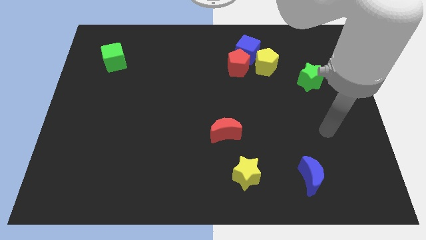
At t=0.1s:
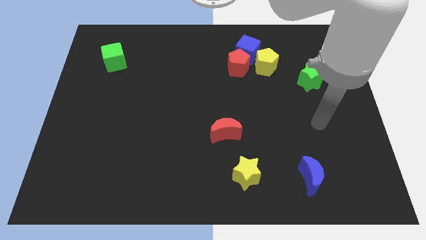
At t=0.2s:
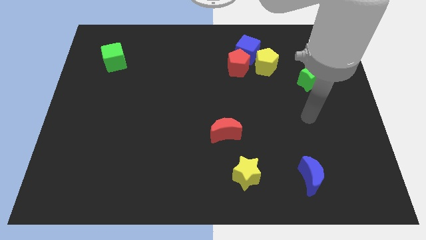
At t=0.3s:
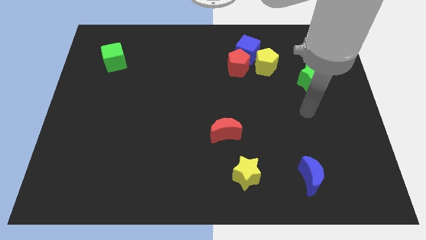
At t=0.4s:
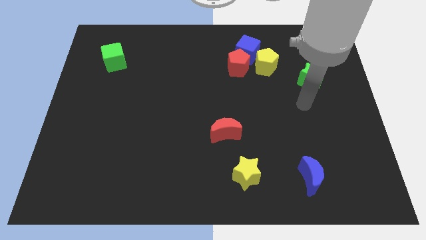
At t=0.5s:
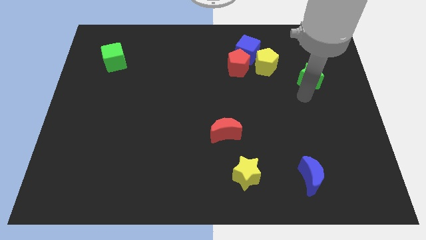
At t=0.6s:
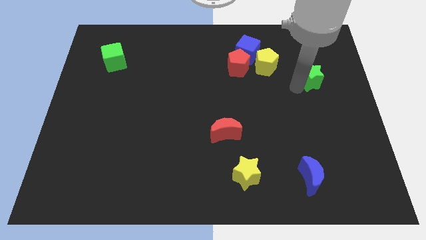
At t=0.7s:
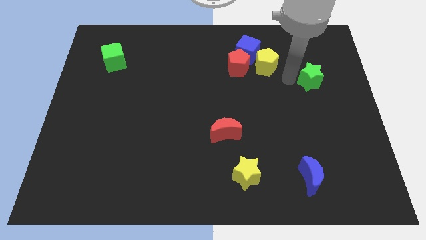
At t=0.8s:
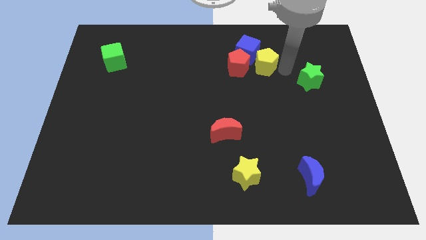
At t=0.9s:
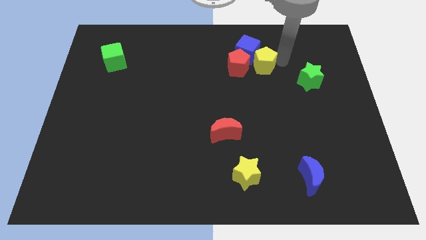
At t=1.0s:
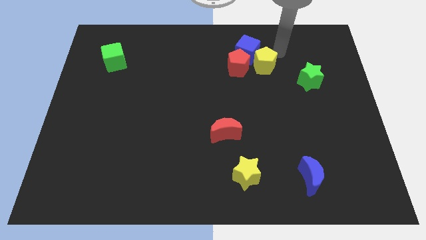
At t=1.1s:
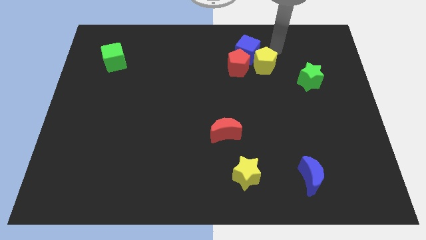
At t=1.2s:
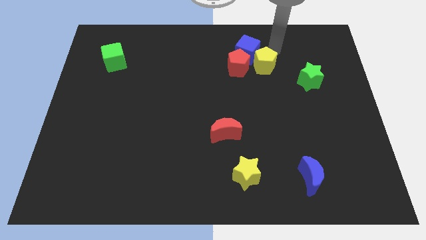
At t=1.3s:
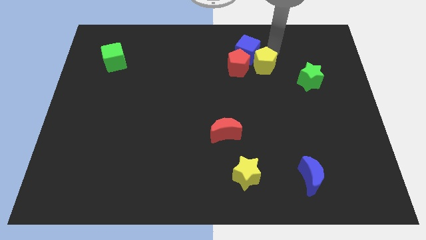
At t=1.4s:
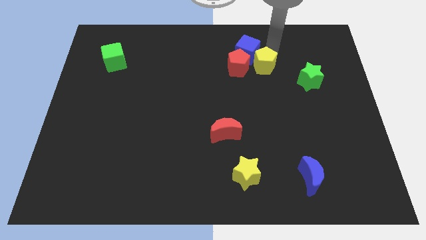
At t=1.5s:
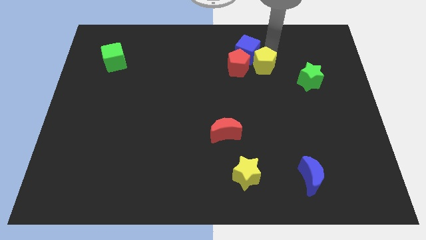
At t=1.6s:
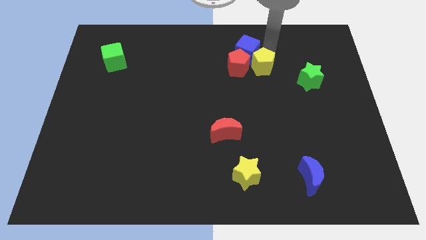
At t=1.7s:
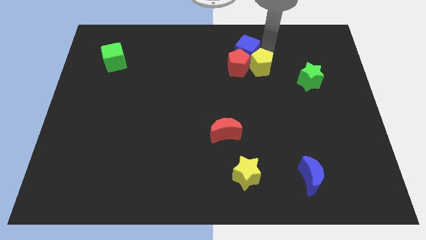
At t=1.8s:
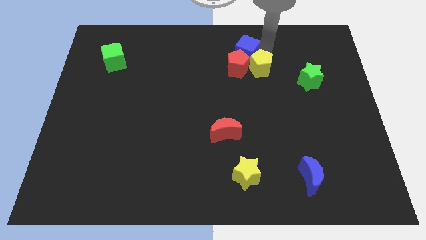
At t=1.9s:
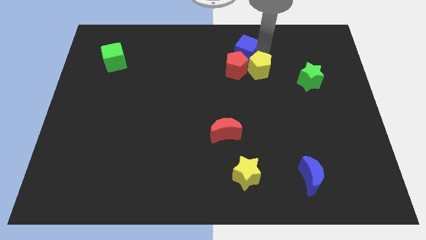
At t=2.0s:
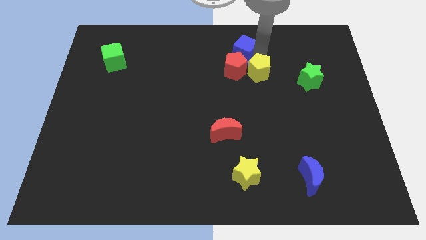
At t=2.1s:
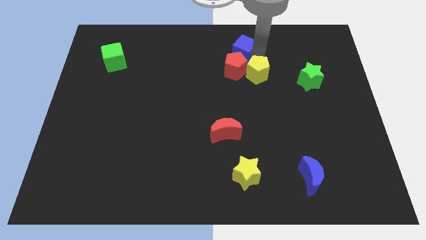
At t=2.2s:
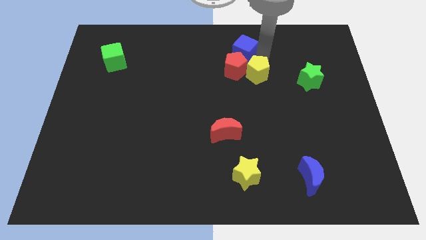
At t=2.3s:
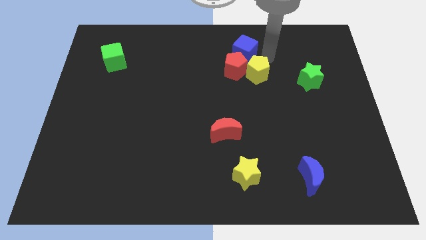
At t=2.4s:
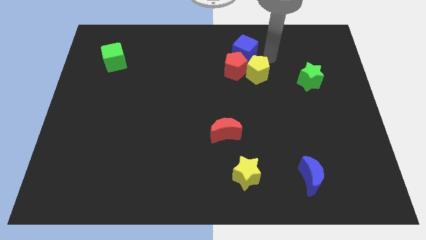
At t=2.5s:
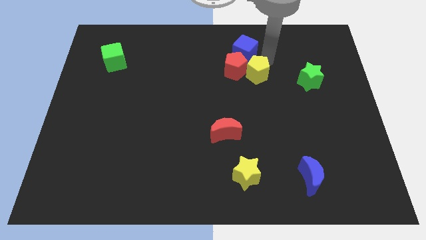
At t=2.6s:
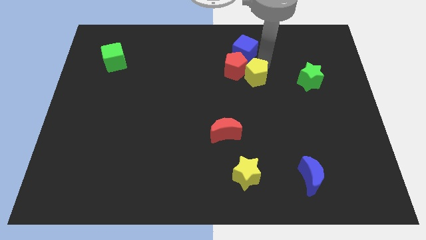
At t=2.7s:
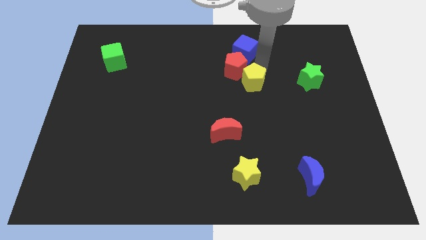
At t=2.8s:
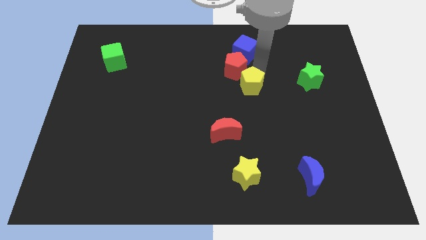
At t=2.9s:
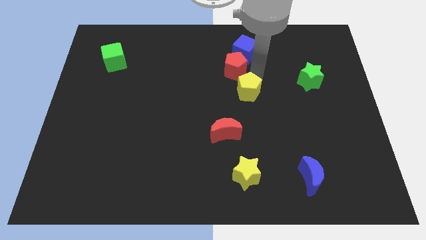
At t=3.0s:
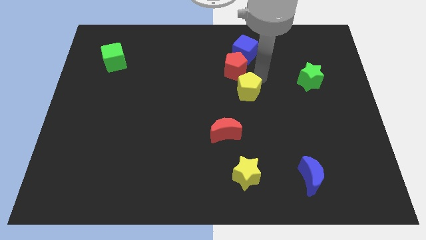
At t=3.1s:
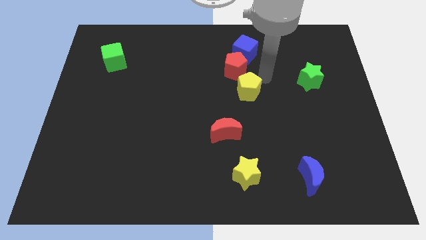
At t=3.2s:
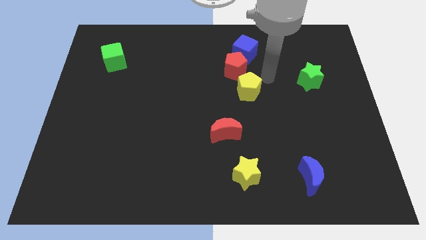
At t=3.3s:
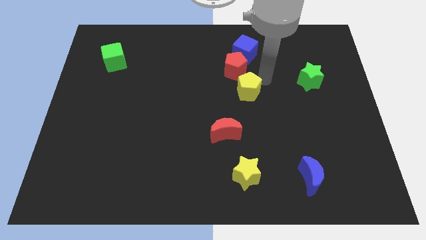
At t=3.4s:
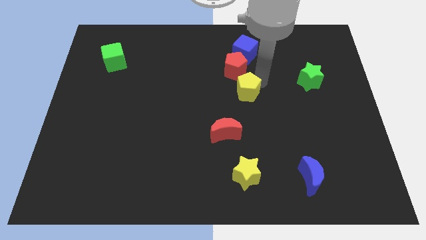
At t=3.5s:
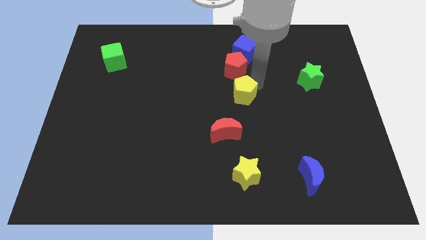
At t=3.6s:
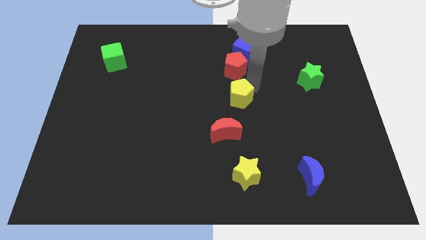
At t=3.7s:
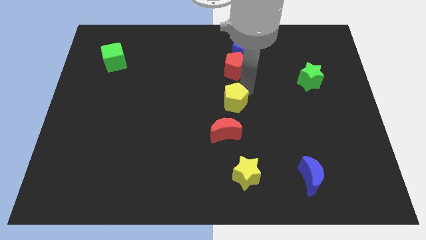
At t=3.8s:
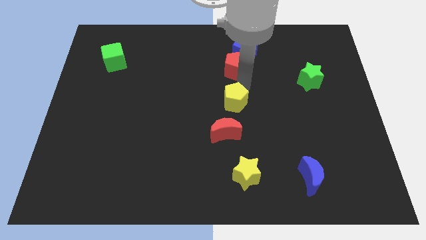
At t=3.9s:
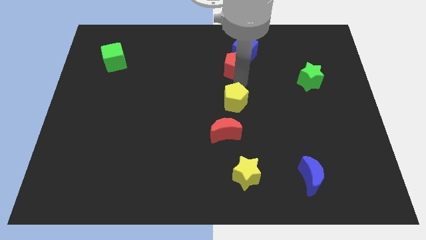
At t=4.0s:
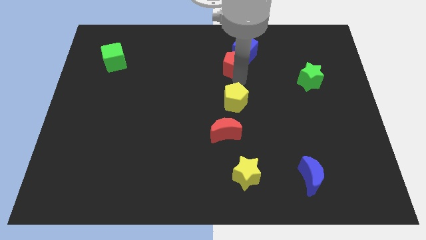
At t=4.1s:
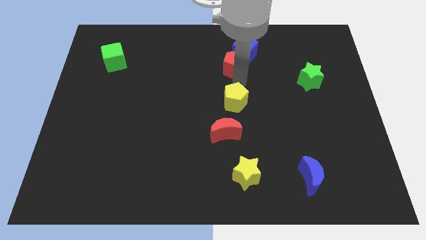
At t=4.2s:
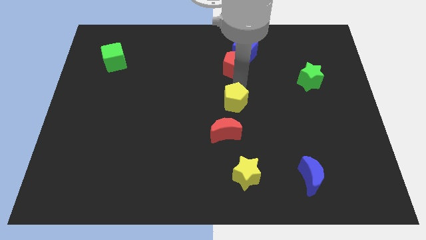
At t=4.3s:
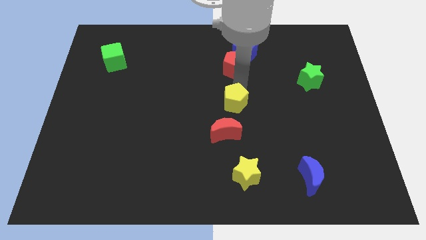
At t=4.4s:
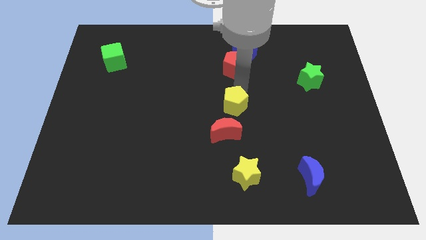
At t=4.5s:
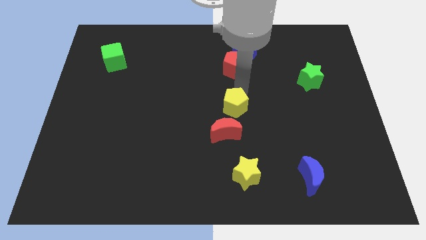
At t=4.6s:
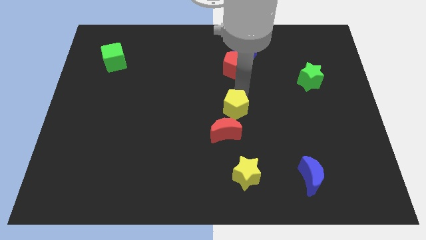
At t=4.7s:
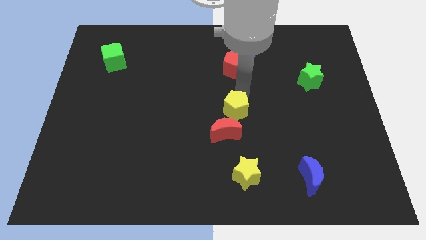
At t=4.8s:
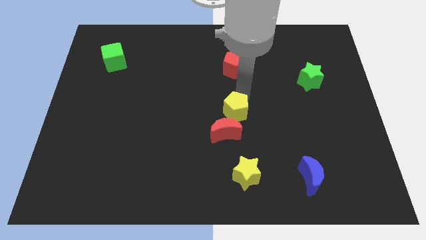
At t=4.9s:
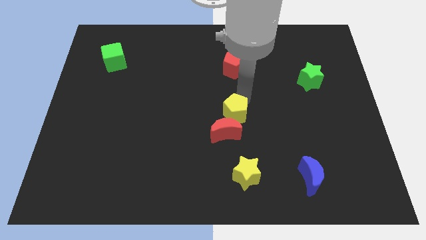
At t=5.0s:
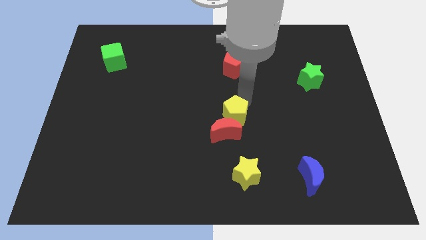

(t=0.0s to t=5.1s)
put the yellow pentagon close to the red moon

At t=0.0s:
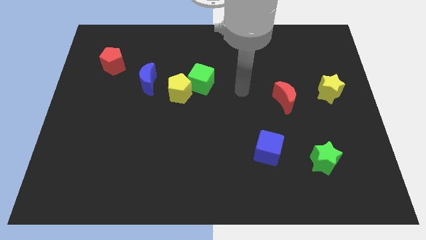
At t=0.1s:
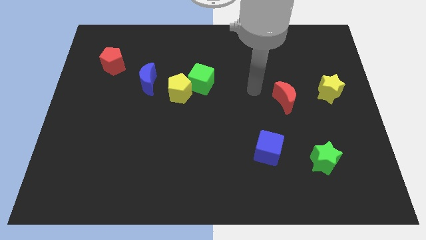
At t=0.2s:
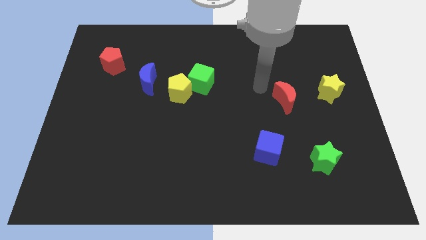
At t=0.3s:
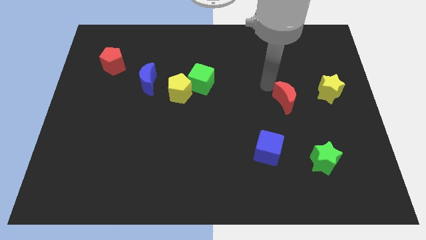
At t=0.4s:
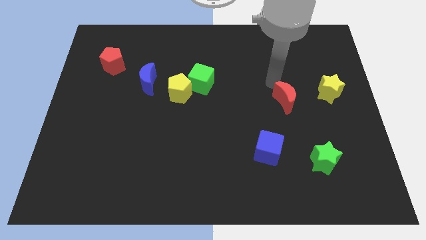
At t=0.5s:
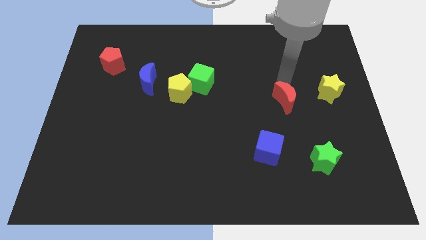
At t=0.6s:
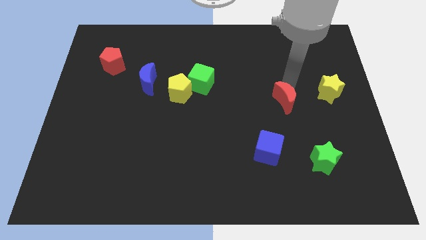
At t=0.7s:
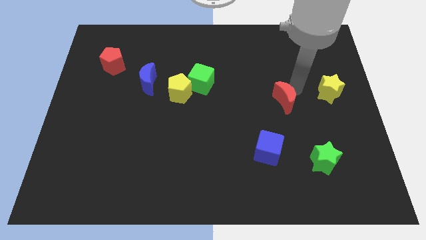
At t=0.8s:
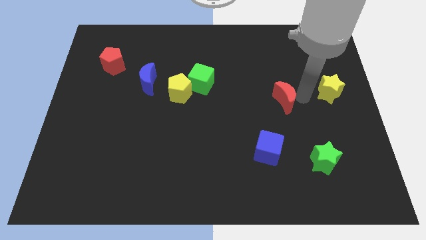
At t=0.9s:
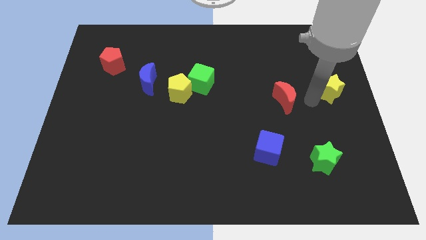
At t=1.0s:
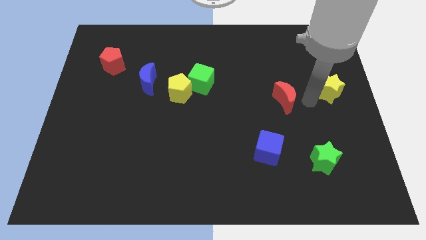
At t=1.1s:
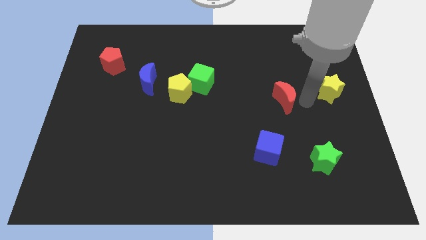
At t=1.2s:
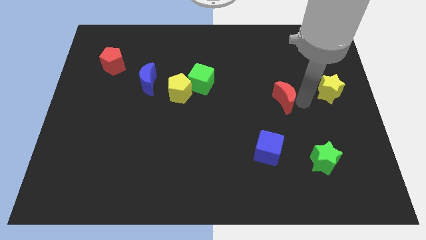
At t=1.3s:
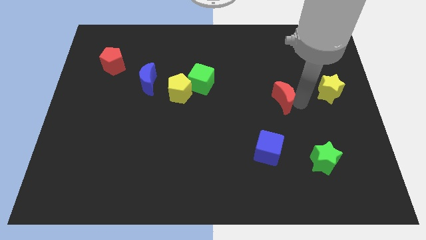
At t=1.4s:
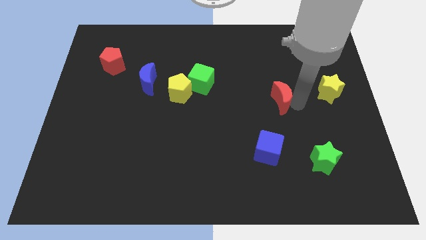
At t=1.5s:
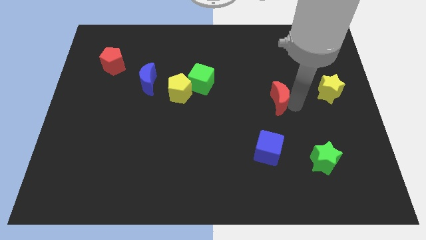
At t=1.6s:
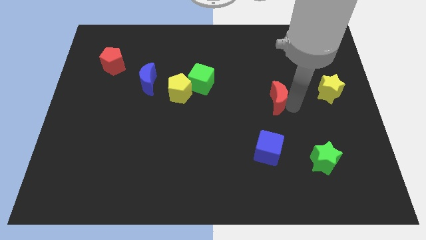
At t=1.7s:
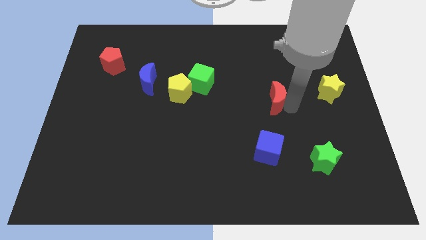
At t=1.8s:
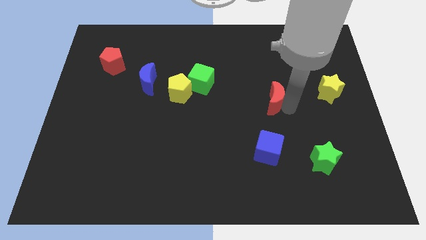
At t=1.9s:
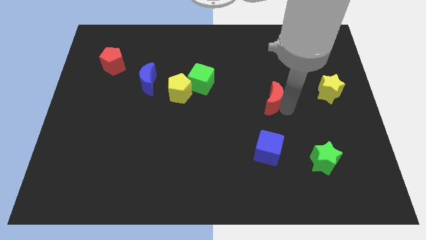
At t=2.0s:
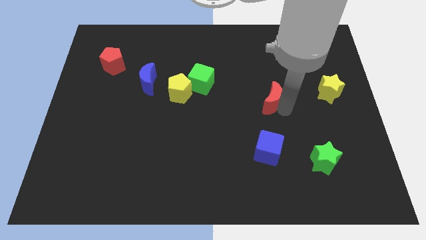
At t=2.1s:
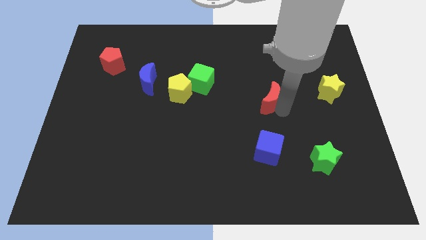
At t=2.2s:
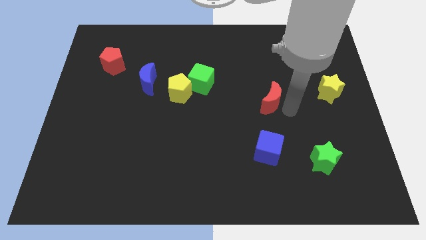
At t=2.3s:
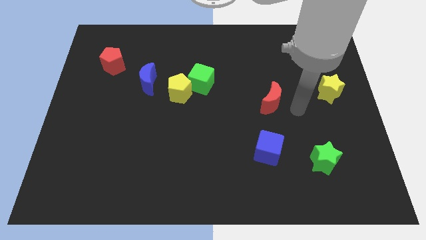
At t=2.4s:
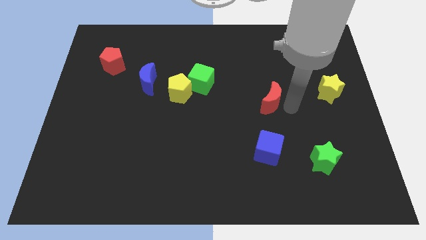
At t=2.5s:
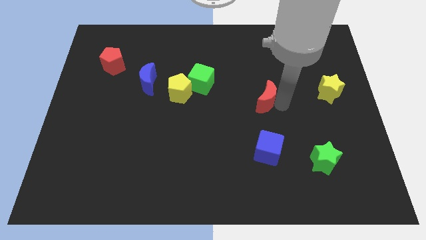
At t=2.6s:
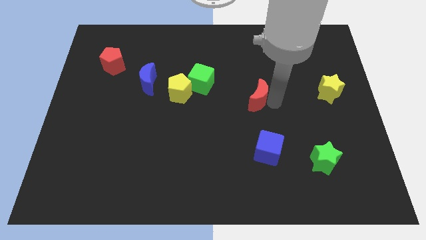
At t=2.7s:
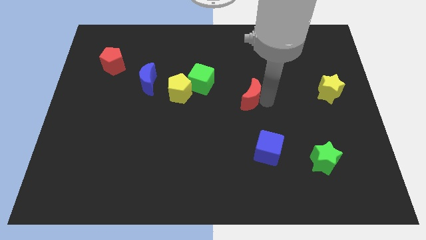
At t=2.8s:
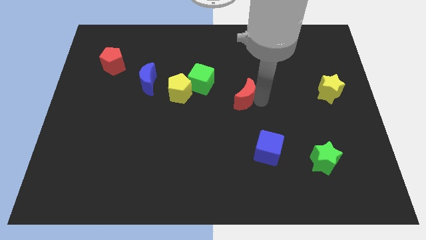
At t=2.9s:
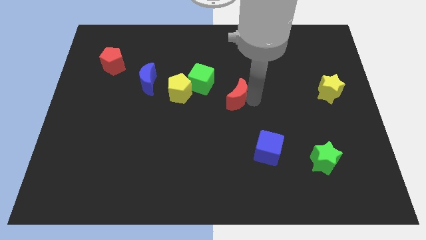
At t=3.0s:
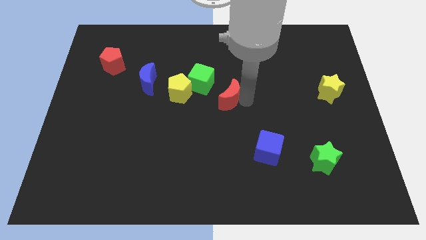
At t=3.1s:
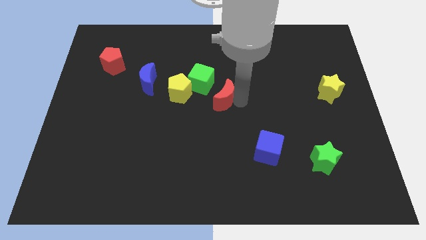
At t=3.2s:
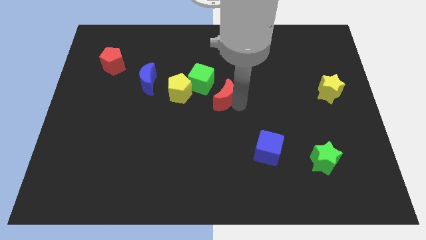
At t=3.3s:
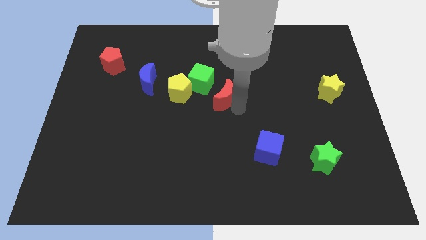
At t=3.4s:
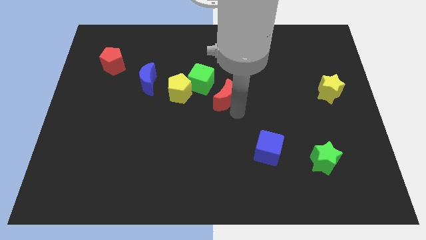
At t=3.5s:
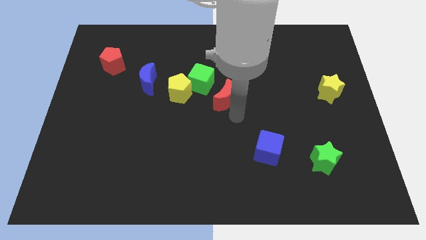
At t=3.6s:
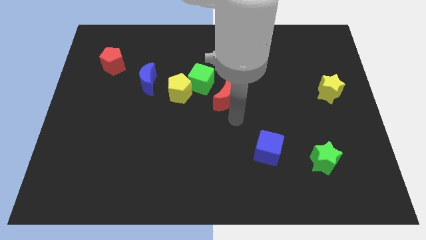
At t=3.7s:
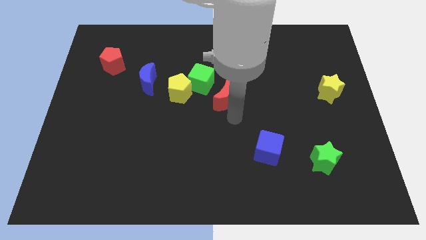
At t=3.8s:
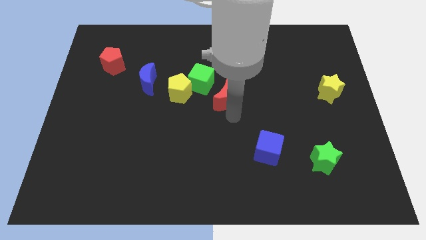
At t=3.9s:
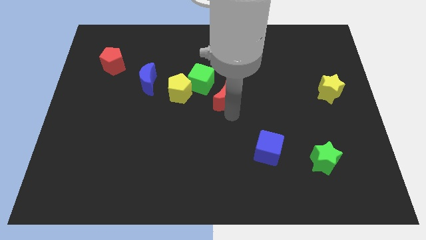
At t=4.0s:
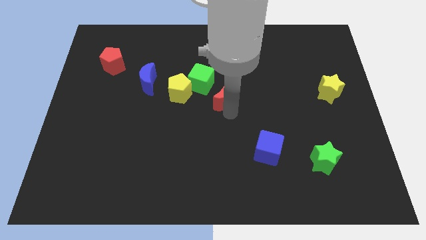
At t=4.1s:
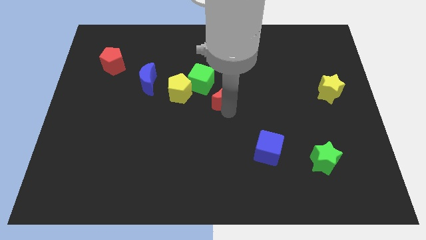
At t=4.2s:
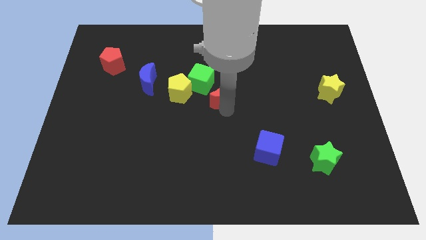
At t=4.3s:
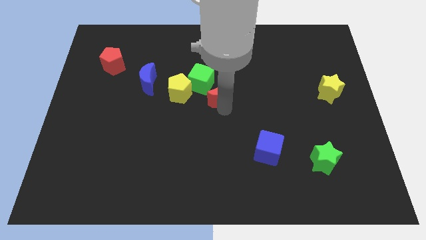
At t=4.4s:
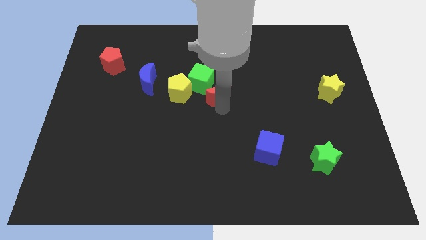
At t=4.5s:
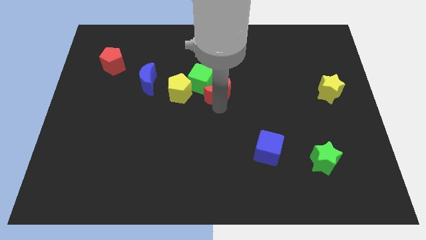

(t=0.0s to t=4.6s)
put the red moon next to the green cube
